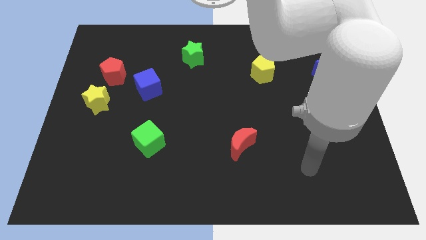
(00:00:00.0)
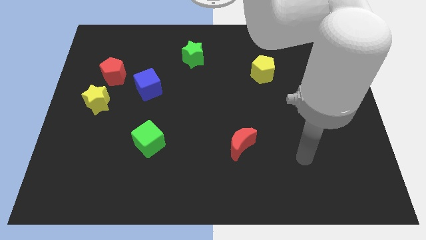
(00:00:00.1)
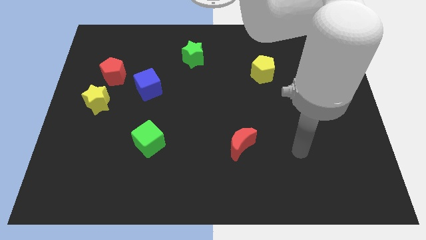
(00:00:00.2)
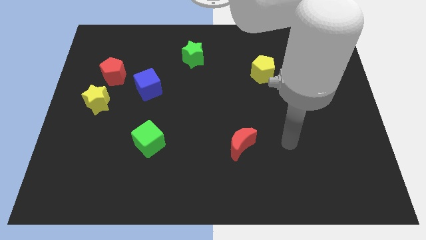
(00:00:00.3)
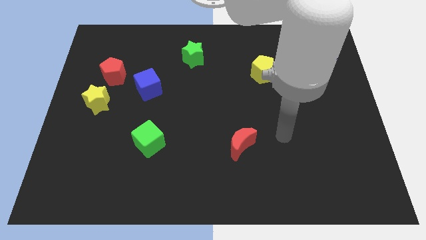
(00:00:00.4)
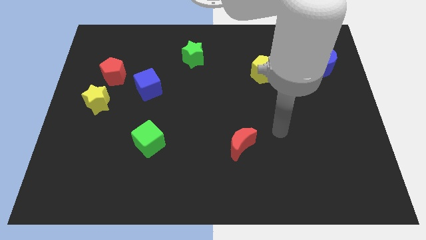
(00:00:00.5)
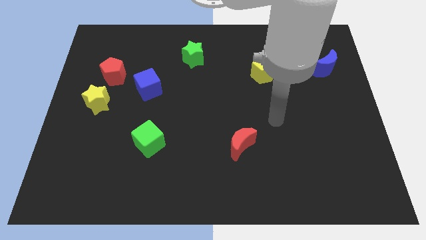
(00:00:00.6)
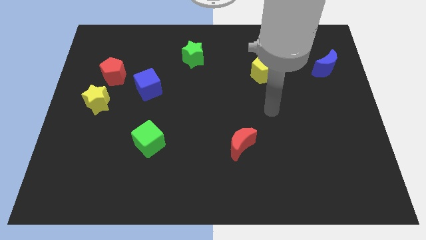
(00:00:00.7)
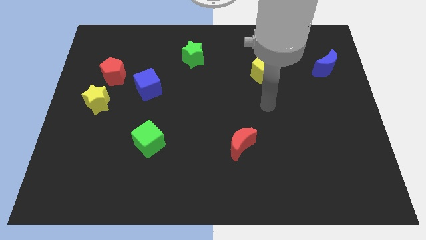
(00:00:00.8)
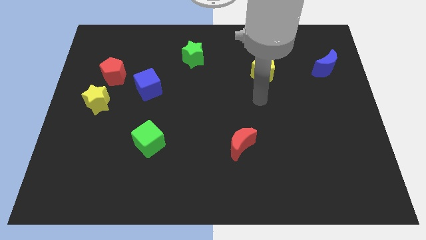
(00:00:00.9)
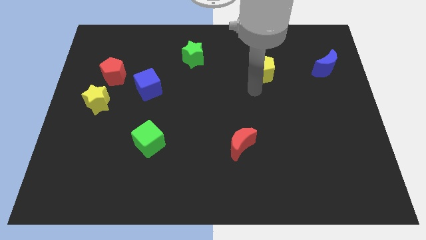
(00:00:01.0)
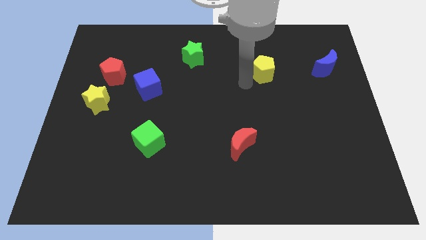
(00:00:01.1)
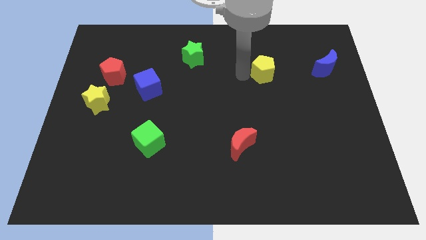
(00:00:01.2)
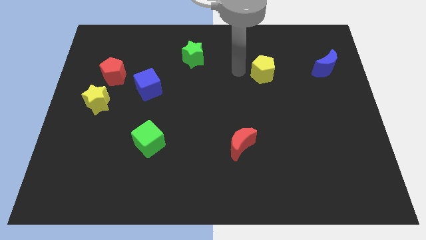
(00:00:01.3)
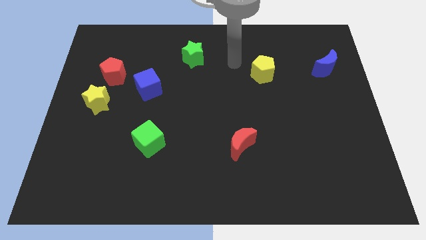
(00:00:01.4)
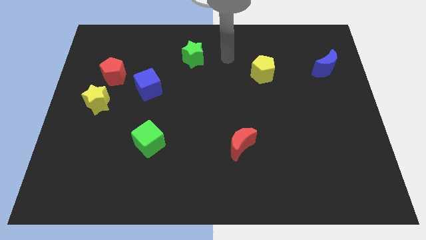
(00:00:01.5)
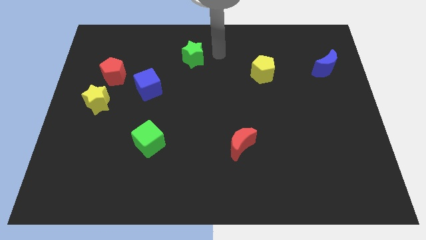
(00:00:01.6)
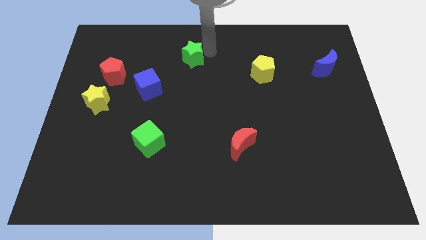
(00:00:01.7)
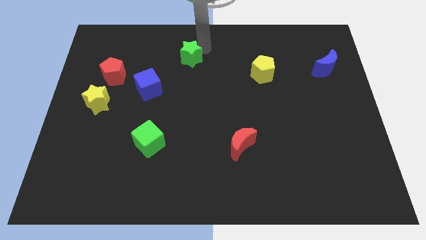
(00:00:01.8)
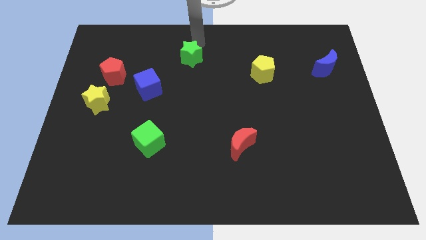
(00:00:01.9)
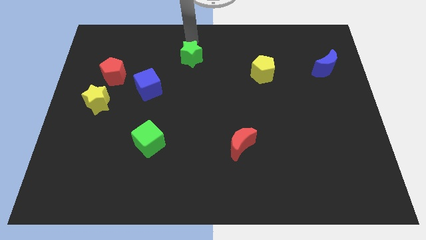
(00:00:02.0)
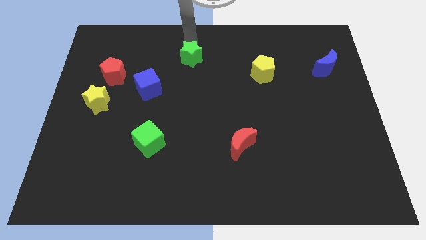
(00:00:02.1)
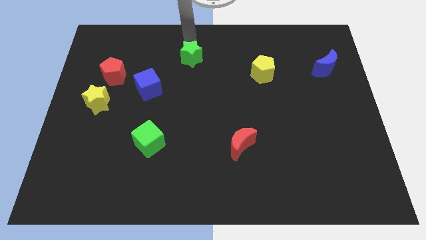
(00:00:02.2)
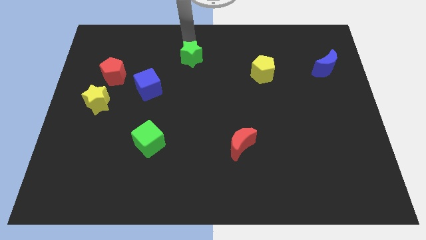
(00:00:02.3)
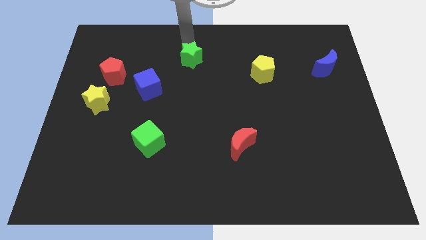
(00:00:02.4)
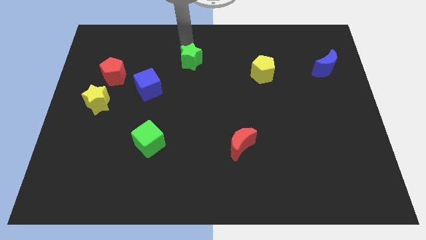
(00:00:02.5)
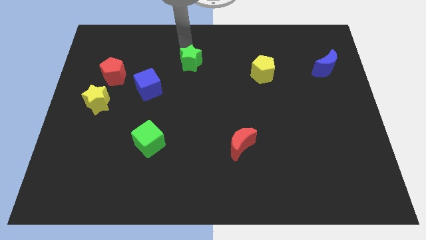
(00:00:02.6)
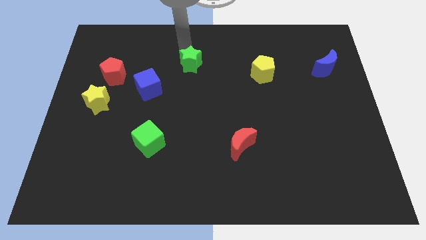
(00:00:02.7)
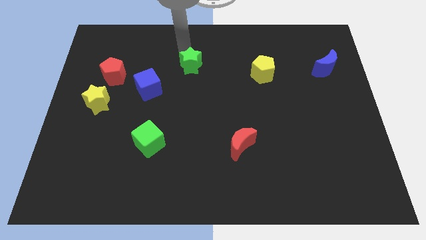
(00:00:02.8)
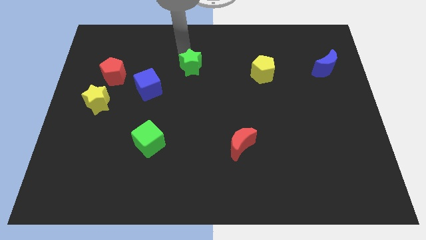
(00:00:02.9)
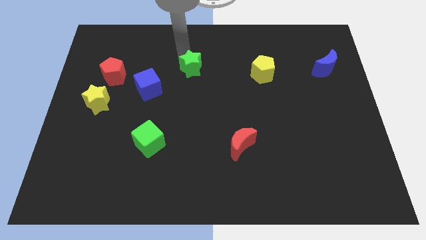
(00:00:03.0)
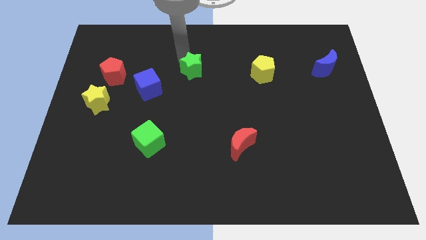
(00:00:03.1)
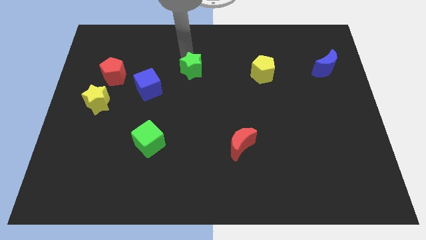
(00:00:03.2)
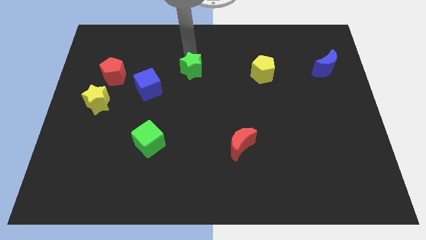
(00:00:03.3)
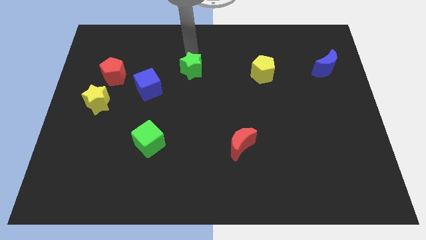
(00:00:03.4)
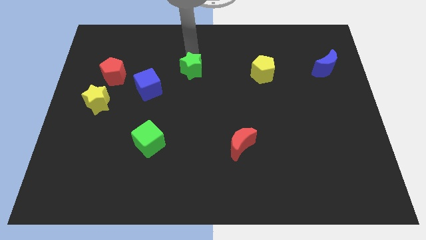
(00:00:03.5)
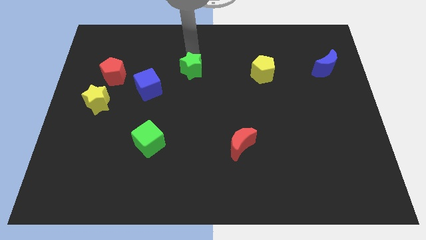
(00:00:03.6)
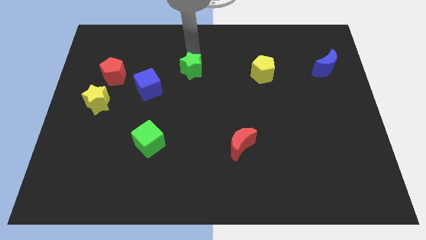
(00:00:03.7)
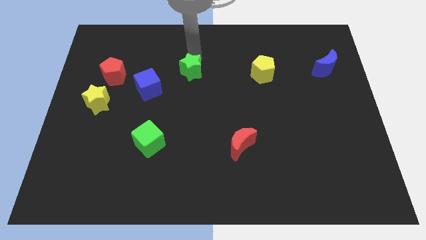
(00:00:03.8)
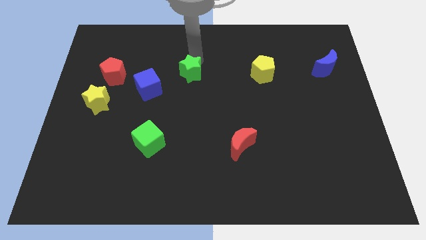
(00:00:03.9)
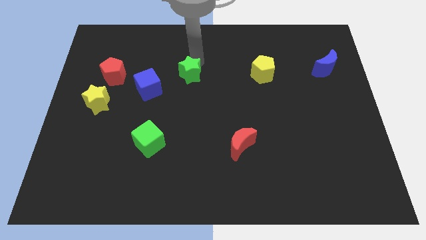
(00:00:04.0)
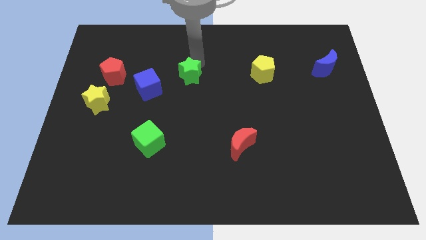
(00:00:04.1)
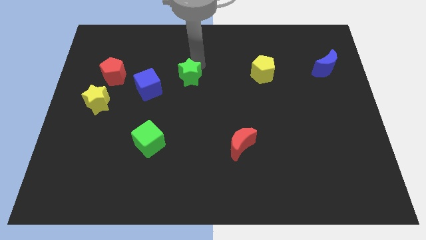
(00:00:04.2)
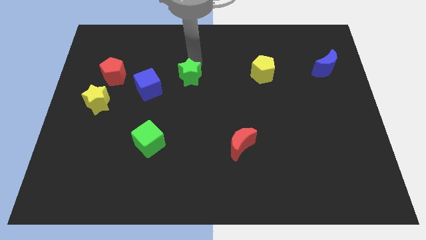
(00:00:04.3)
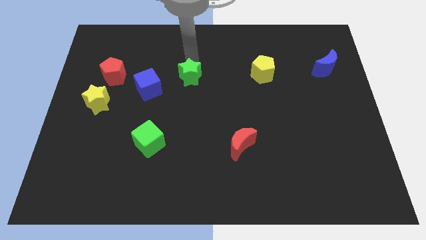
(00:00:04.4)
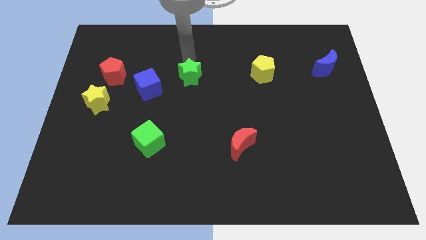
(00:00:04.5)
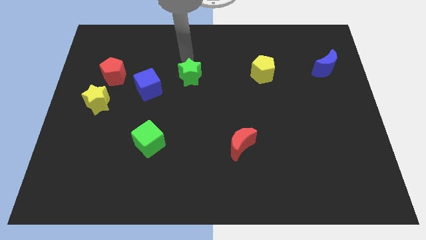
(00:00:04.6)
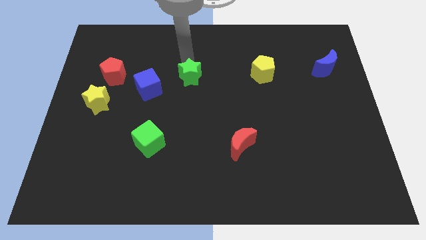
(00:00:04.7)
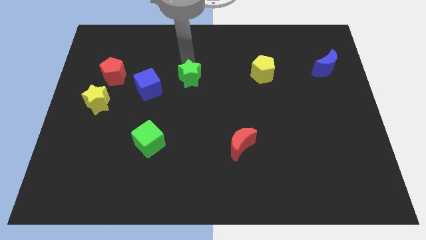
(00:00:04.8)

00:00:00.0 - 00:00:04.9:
move the green star a little bit downwards

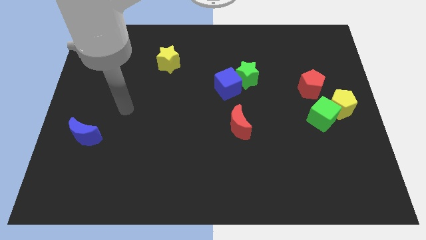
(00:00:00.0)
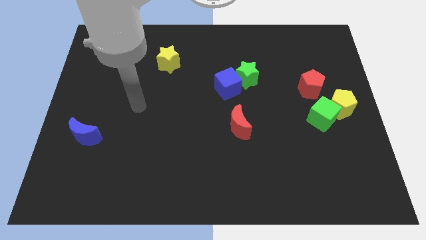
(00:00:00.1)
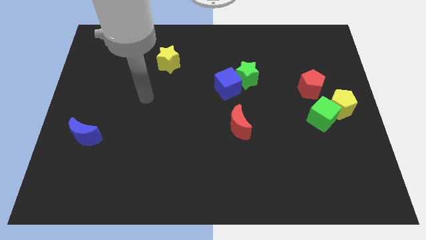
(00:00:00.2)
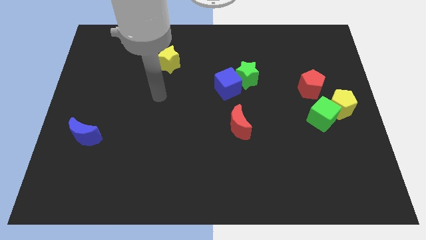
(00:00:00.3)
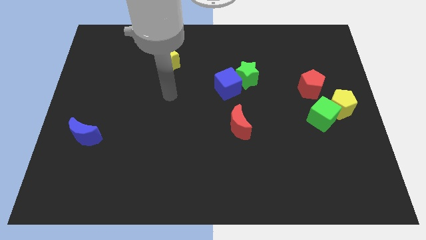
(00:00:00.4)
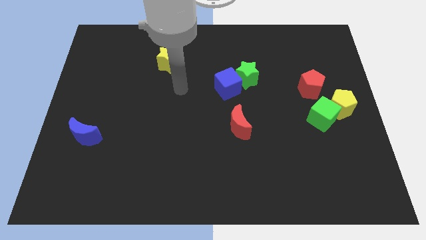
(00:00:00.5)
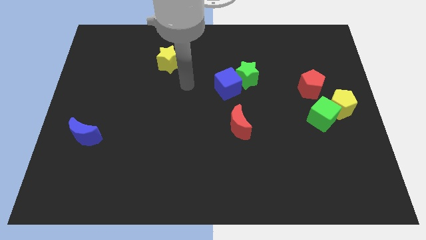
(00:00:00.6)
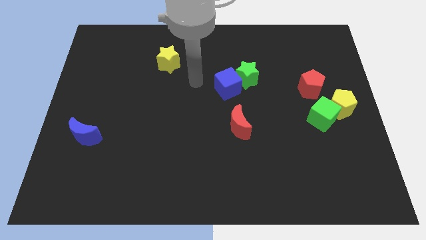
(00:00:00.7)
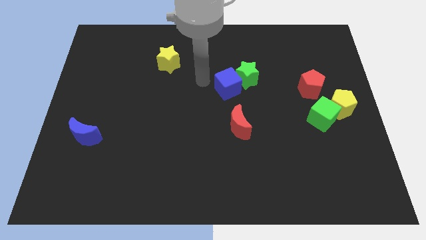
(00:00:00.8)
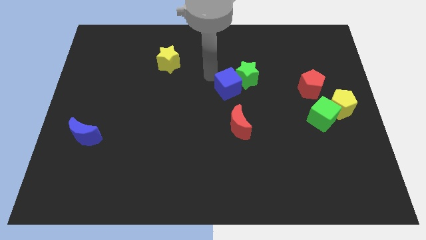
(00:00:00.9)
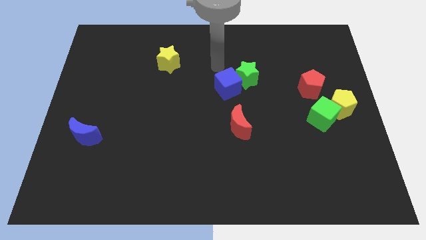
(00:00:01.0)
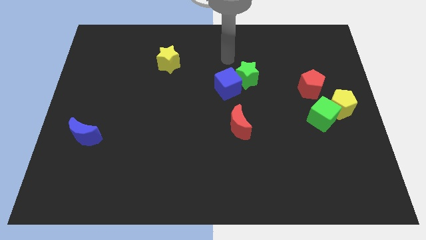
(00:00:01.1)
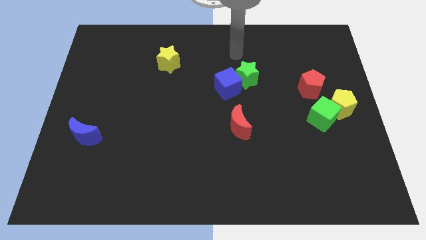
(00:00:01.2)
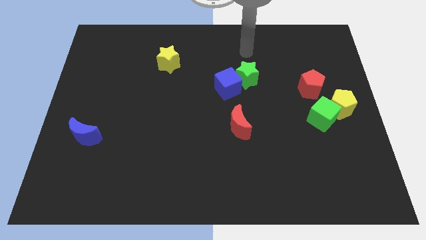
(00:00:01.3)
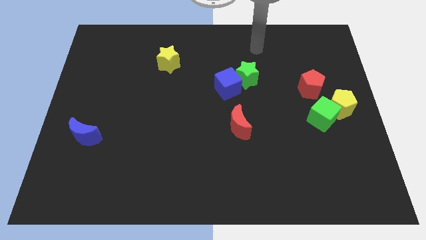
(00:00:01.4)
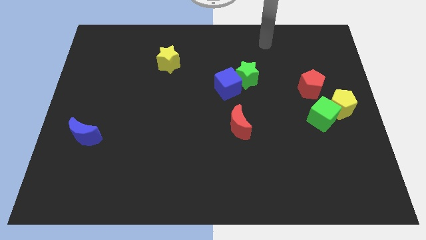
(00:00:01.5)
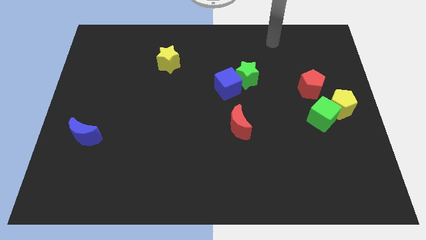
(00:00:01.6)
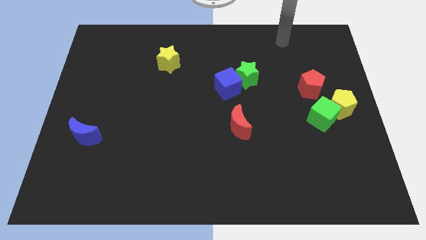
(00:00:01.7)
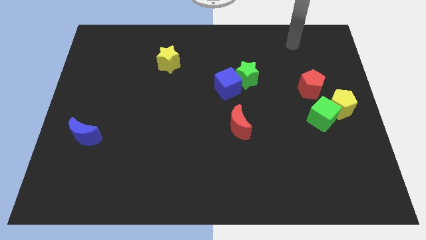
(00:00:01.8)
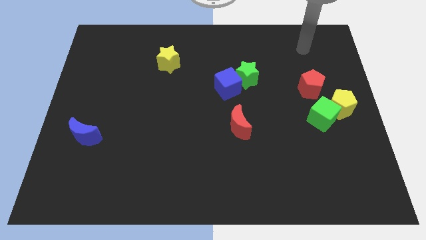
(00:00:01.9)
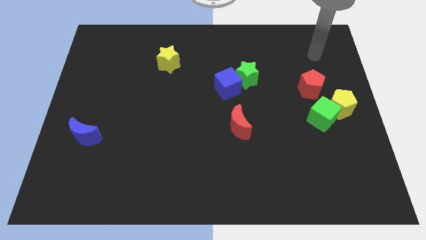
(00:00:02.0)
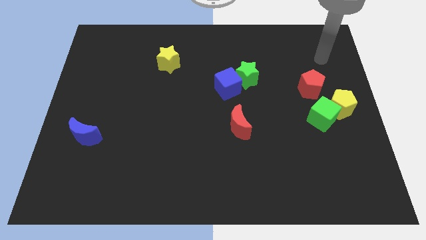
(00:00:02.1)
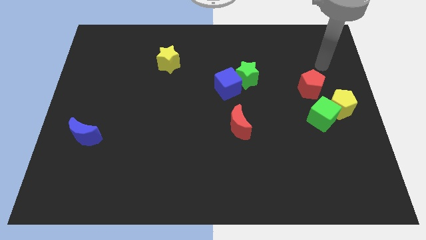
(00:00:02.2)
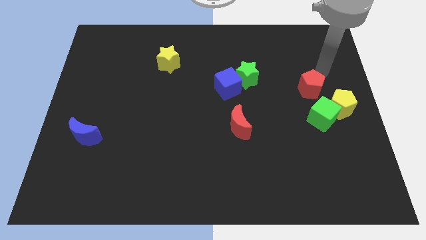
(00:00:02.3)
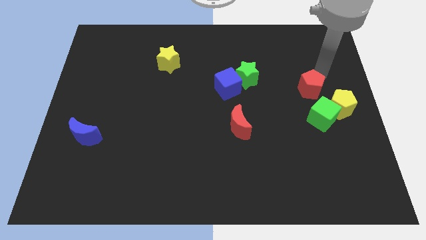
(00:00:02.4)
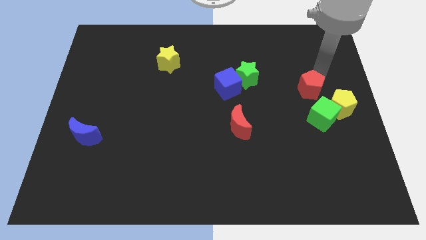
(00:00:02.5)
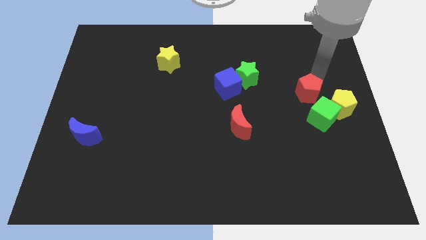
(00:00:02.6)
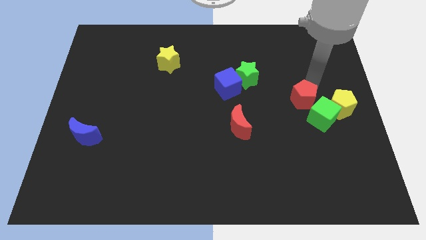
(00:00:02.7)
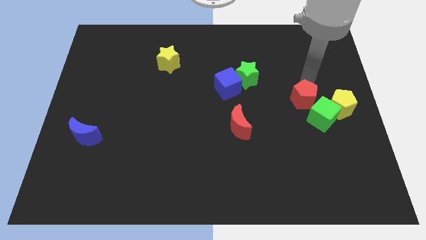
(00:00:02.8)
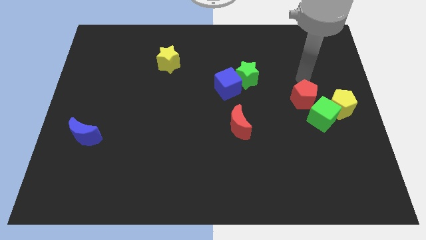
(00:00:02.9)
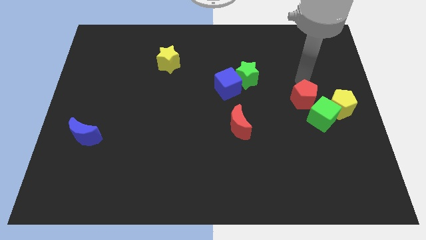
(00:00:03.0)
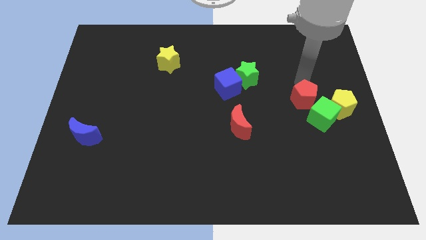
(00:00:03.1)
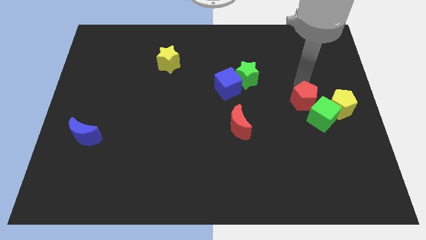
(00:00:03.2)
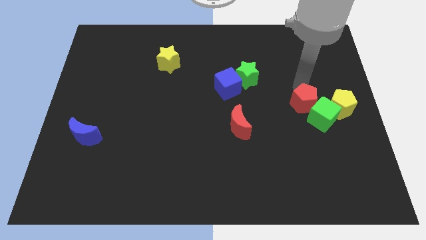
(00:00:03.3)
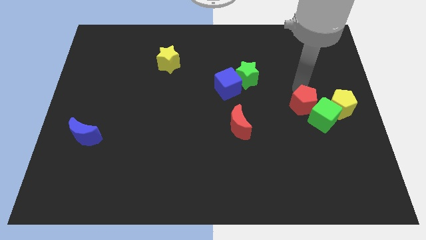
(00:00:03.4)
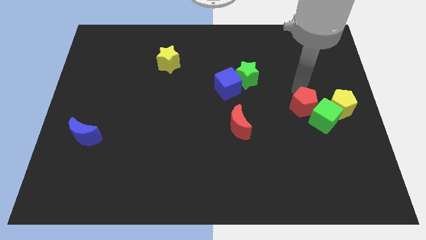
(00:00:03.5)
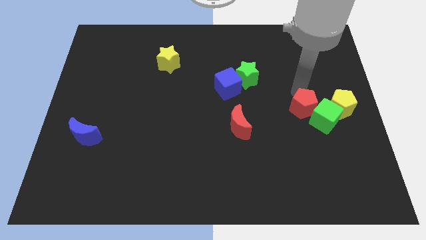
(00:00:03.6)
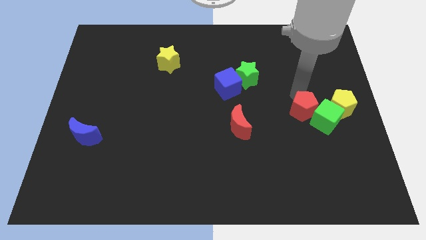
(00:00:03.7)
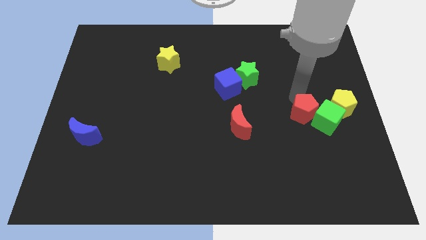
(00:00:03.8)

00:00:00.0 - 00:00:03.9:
push the red pentagon down slightly
